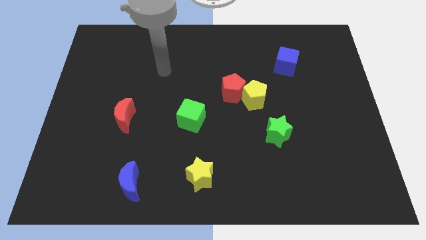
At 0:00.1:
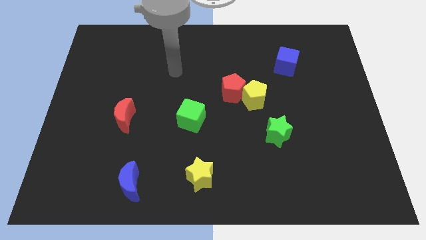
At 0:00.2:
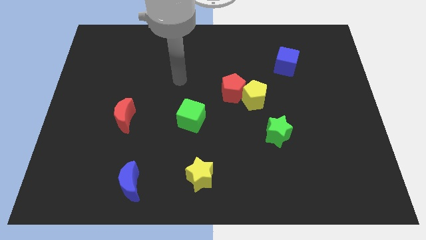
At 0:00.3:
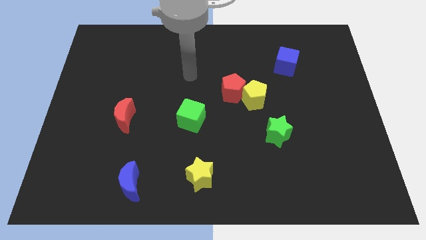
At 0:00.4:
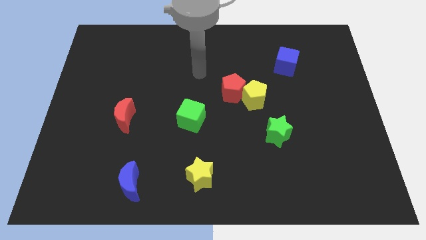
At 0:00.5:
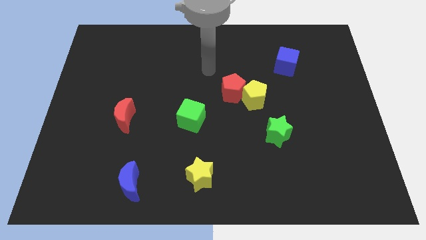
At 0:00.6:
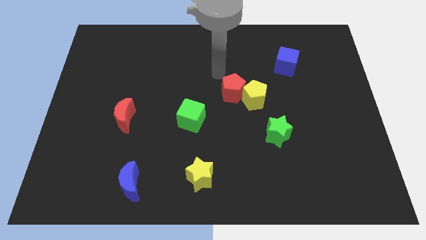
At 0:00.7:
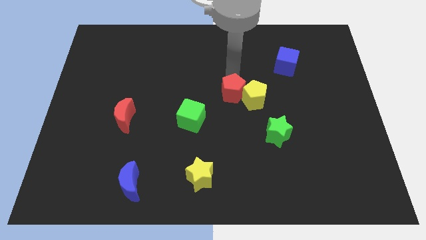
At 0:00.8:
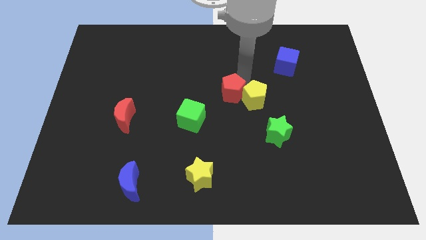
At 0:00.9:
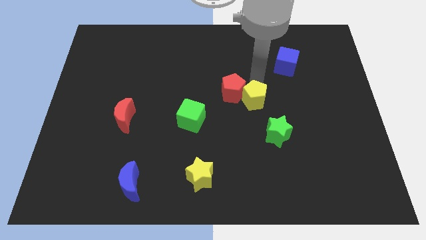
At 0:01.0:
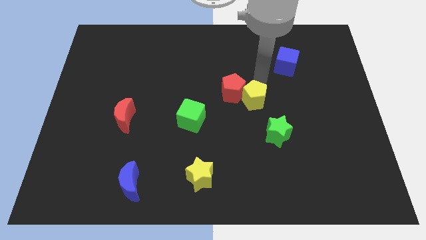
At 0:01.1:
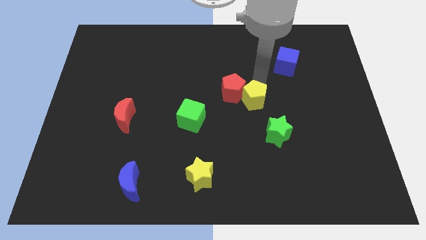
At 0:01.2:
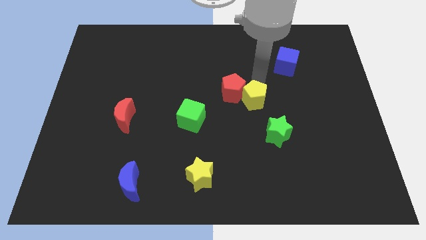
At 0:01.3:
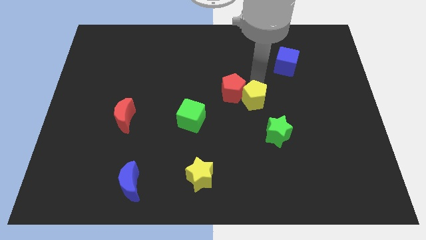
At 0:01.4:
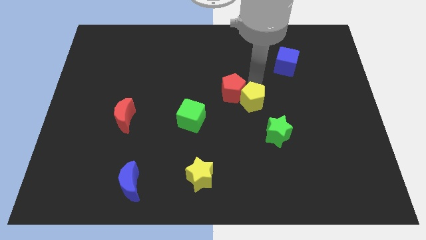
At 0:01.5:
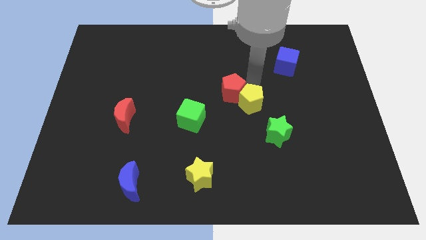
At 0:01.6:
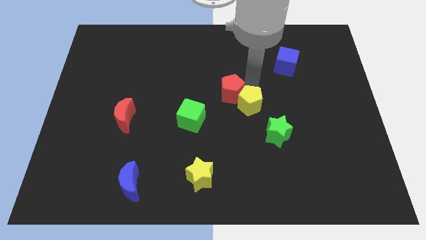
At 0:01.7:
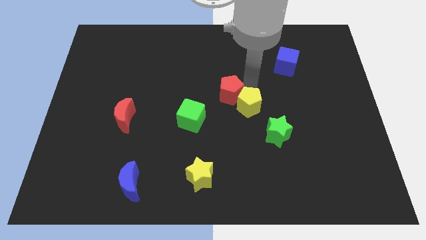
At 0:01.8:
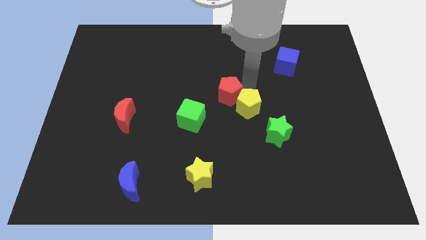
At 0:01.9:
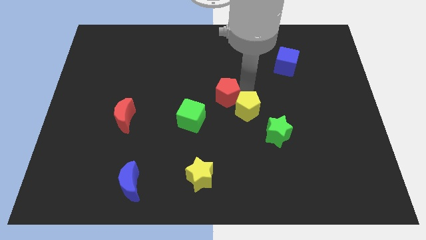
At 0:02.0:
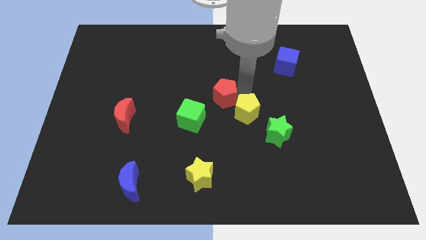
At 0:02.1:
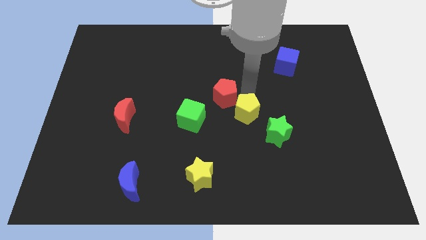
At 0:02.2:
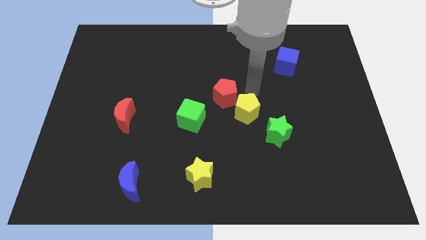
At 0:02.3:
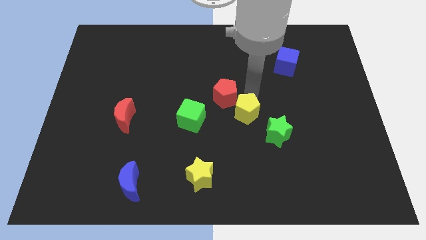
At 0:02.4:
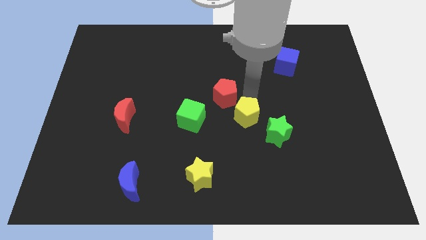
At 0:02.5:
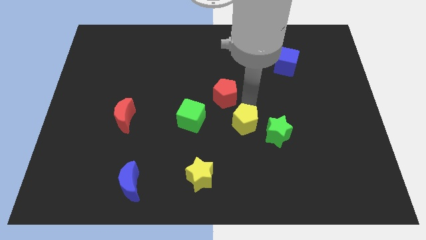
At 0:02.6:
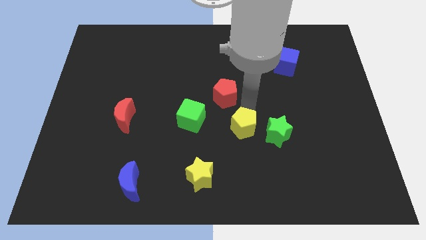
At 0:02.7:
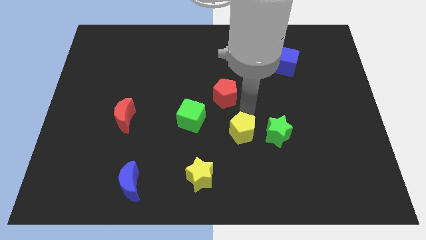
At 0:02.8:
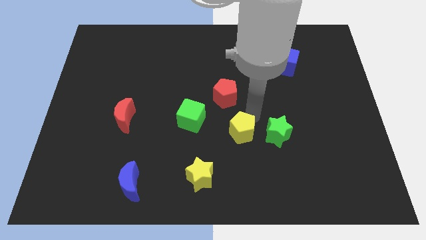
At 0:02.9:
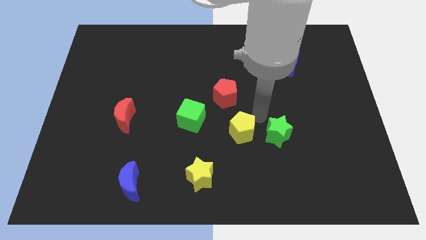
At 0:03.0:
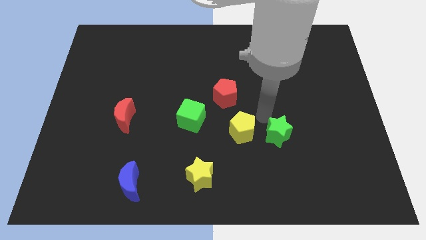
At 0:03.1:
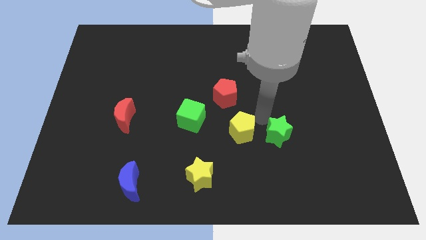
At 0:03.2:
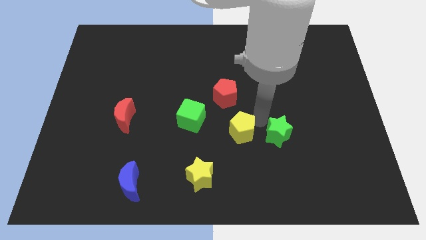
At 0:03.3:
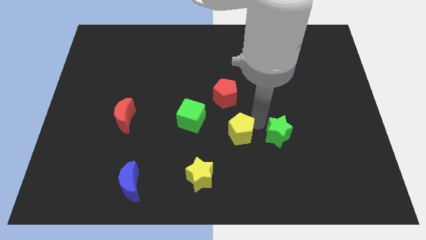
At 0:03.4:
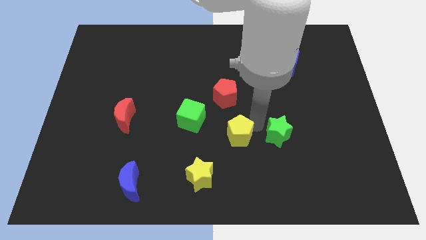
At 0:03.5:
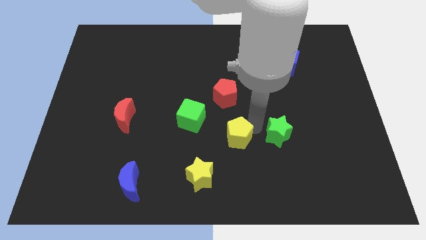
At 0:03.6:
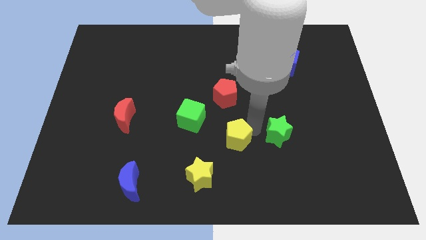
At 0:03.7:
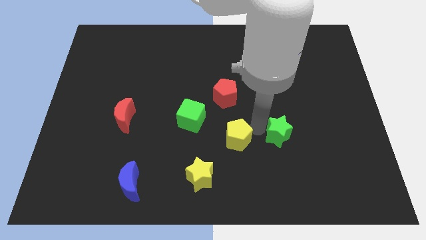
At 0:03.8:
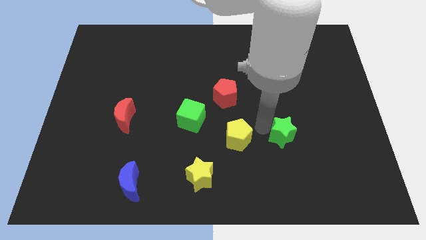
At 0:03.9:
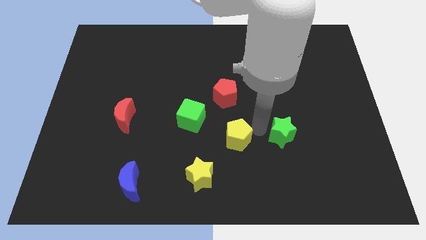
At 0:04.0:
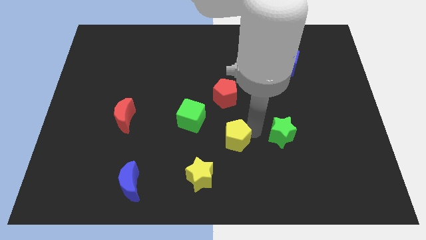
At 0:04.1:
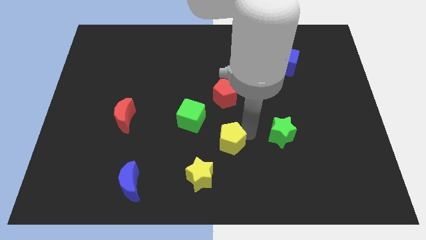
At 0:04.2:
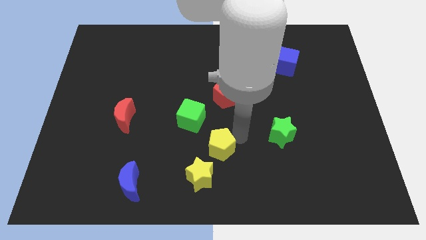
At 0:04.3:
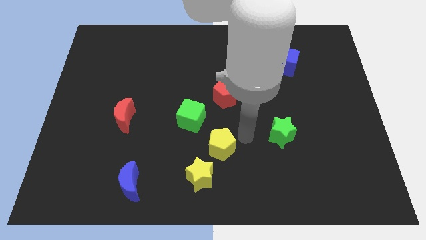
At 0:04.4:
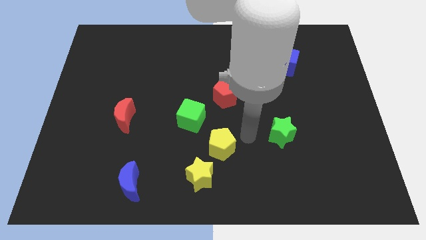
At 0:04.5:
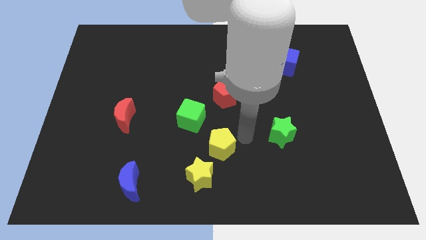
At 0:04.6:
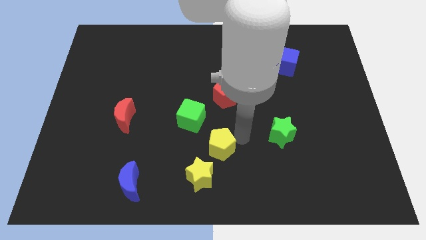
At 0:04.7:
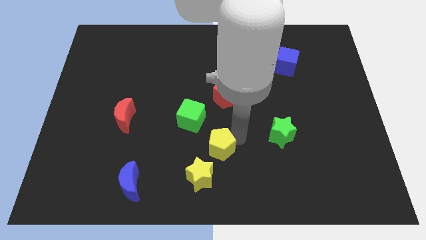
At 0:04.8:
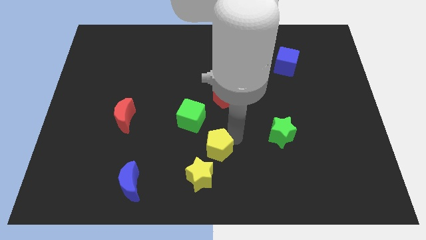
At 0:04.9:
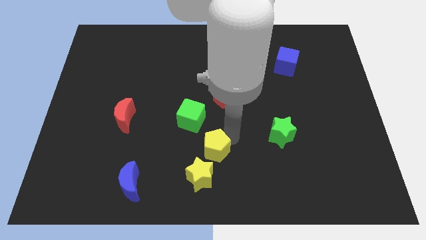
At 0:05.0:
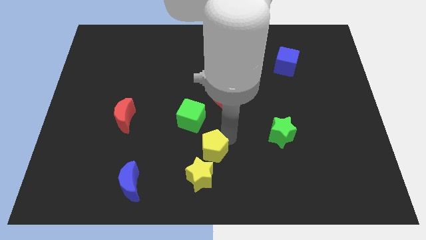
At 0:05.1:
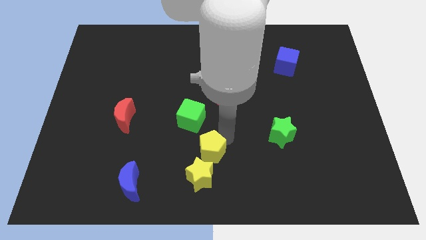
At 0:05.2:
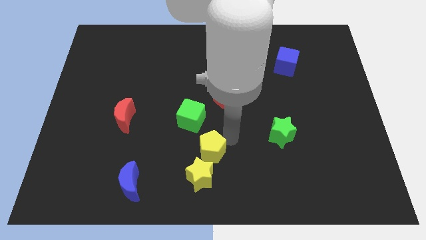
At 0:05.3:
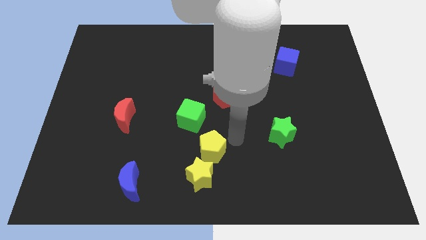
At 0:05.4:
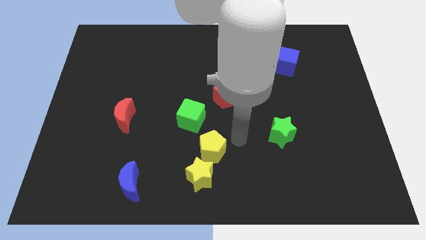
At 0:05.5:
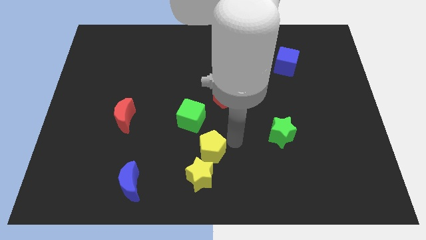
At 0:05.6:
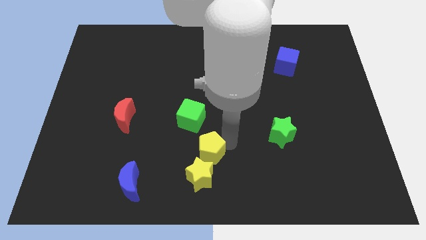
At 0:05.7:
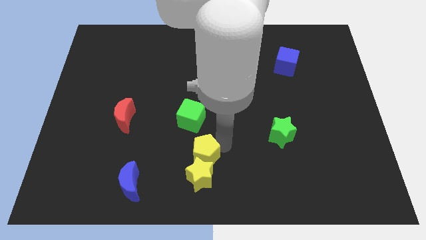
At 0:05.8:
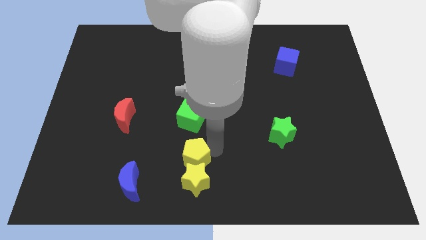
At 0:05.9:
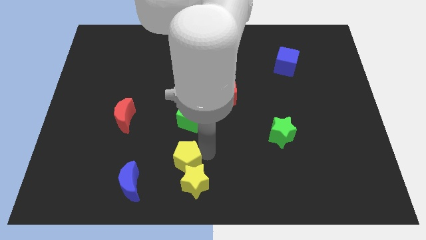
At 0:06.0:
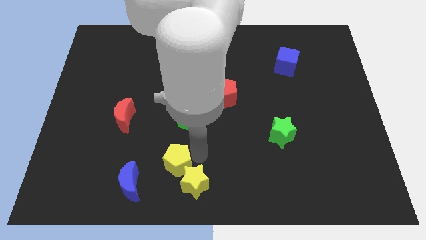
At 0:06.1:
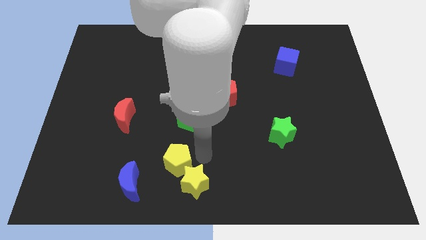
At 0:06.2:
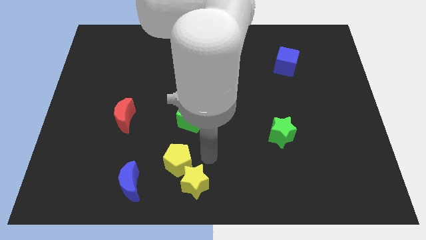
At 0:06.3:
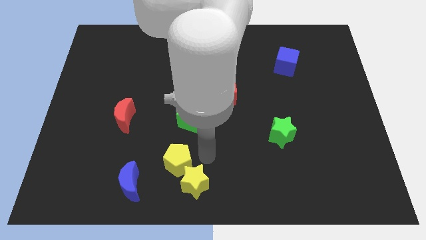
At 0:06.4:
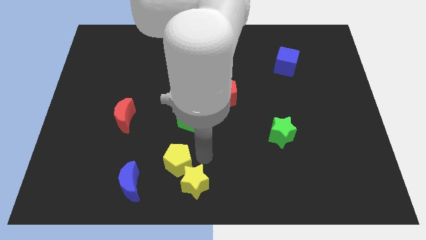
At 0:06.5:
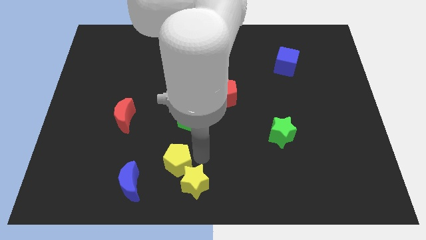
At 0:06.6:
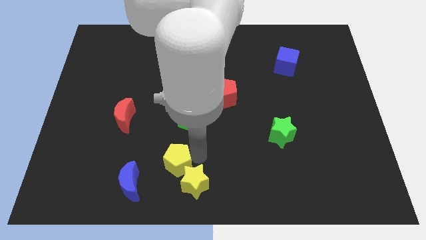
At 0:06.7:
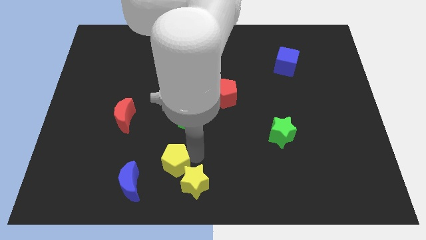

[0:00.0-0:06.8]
move the yellow pentagon just left of the yellow star
